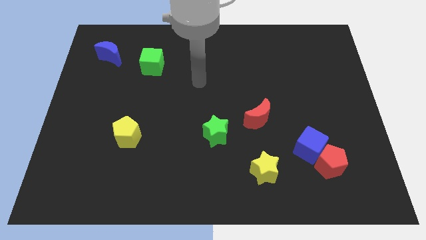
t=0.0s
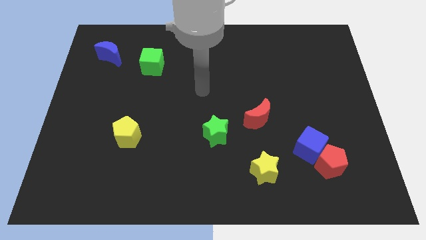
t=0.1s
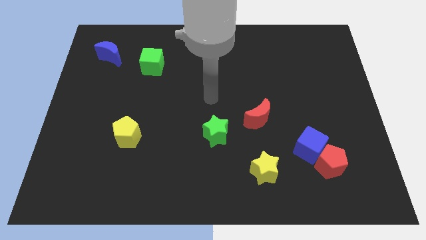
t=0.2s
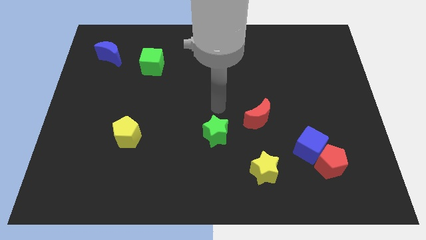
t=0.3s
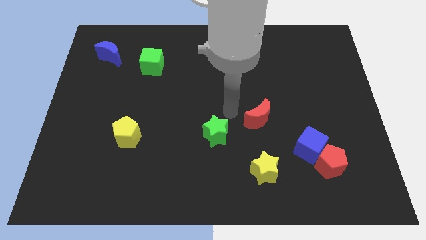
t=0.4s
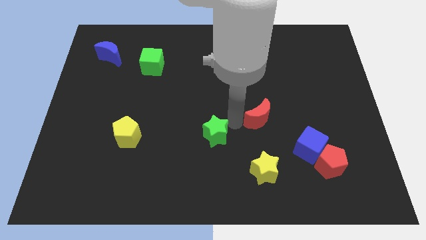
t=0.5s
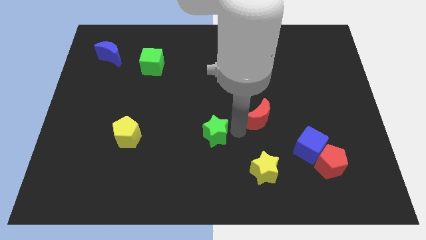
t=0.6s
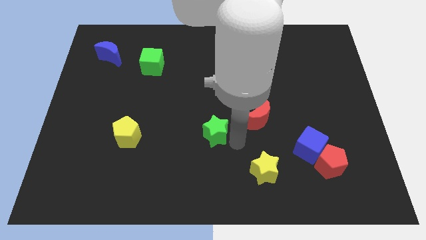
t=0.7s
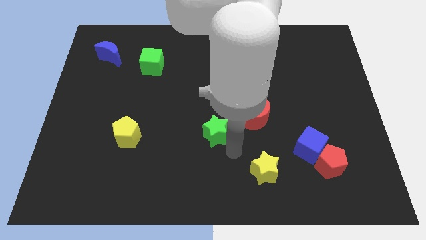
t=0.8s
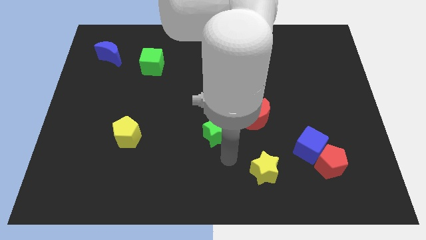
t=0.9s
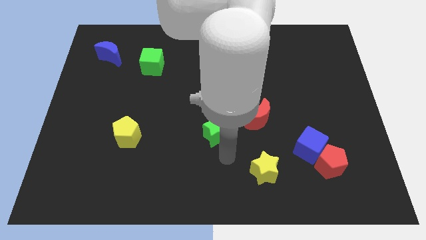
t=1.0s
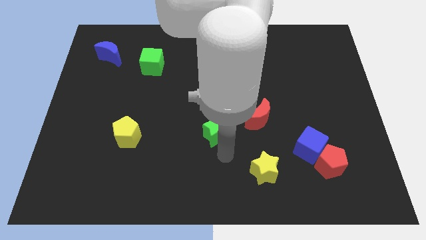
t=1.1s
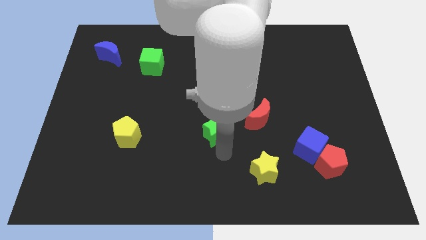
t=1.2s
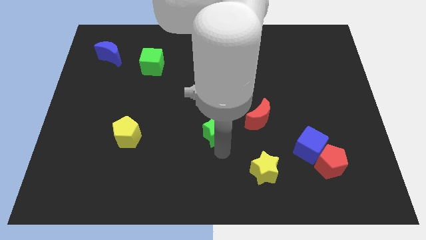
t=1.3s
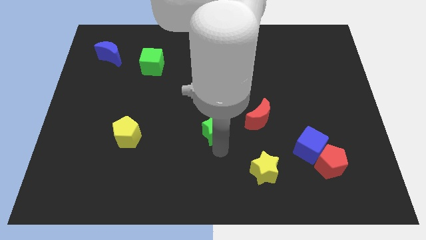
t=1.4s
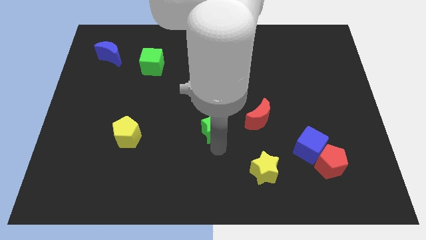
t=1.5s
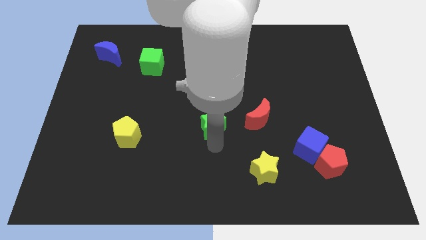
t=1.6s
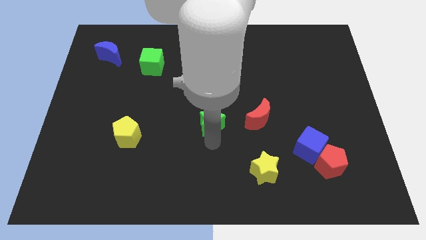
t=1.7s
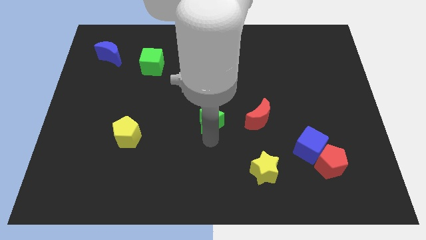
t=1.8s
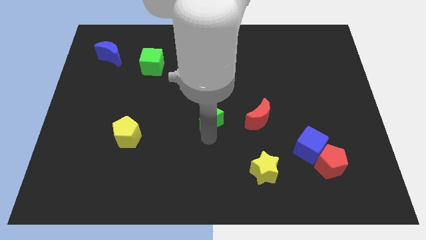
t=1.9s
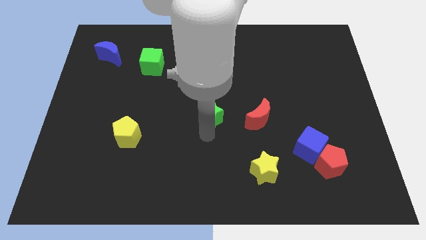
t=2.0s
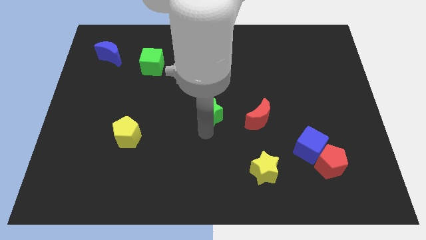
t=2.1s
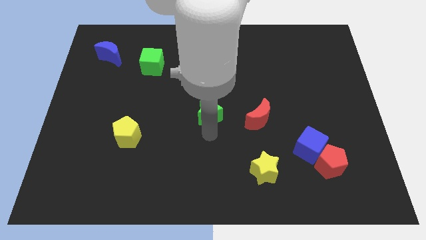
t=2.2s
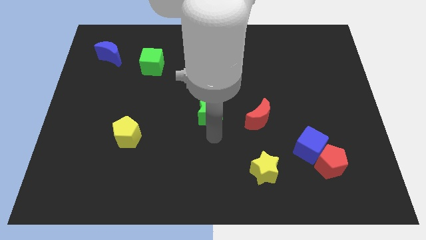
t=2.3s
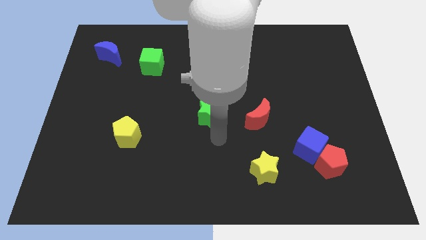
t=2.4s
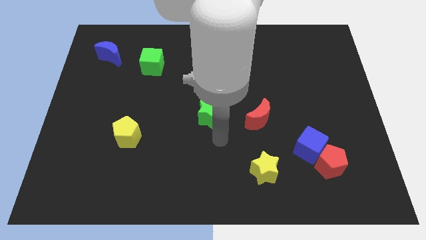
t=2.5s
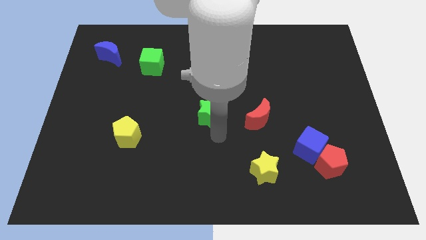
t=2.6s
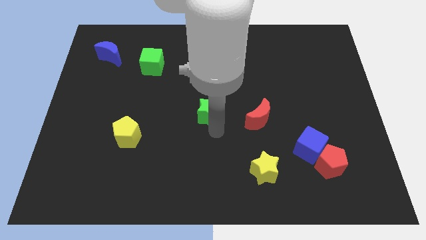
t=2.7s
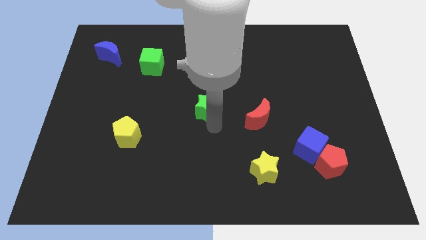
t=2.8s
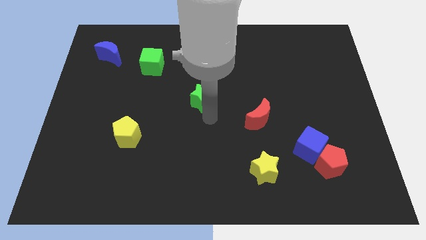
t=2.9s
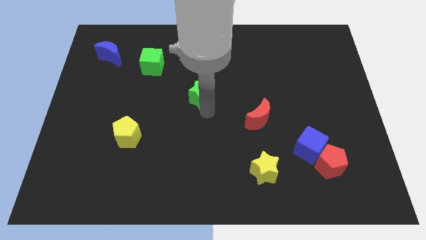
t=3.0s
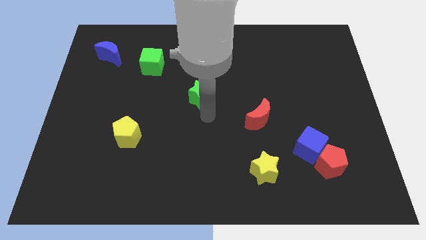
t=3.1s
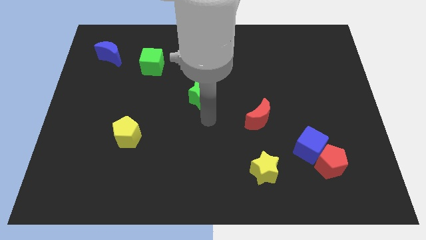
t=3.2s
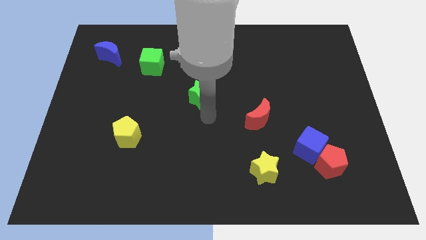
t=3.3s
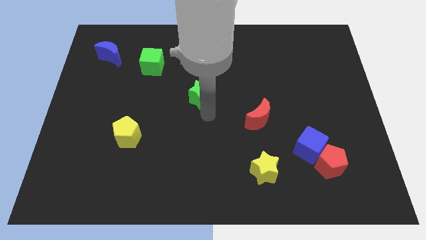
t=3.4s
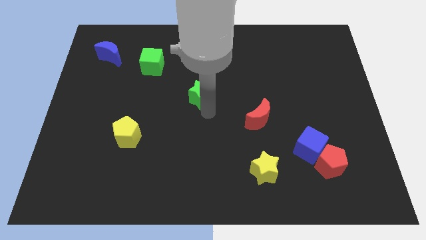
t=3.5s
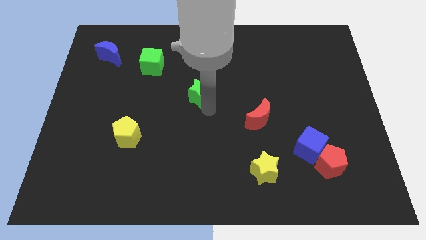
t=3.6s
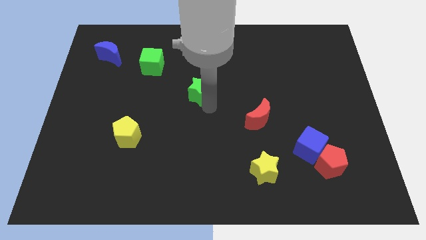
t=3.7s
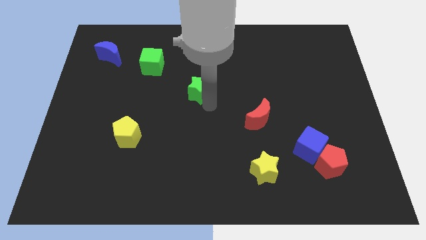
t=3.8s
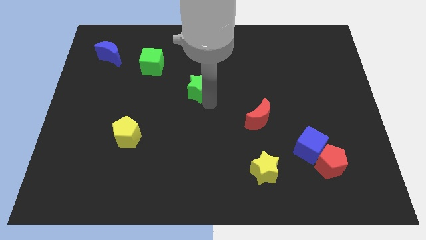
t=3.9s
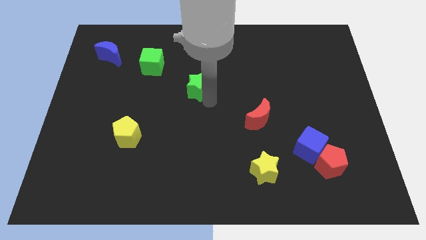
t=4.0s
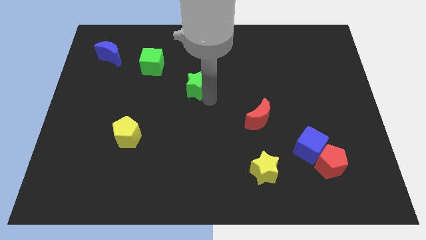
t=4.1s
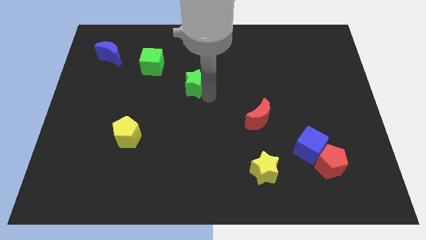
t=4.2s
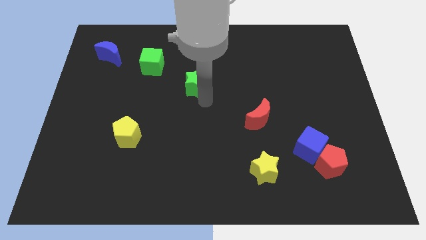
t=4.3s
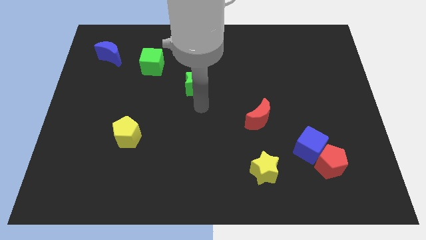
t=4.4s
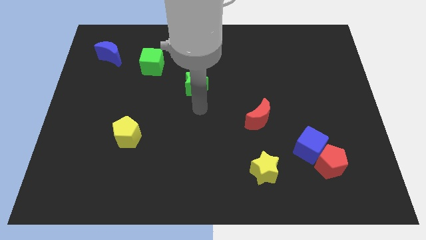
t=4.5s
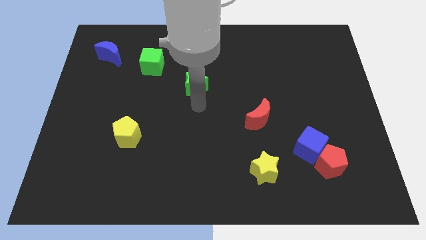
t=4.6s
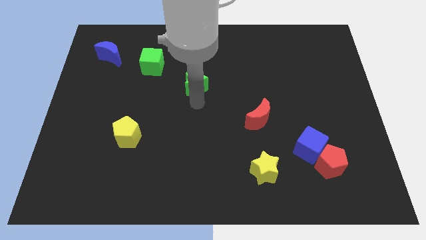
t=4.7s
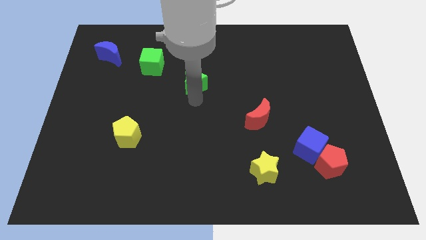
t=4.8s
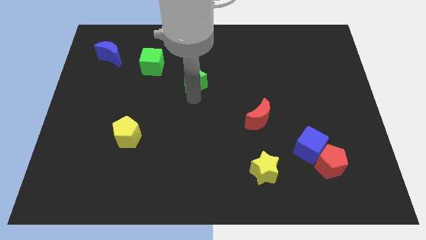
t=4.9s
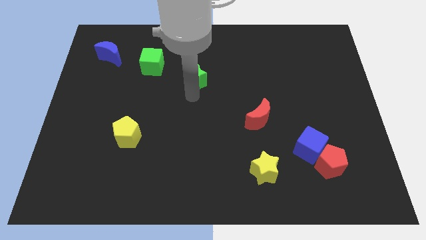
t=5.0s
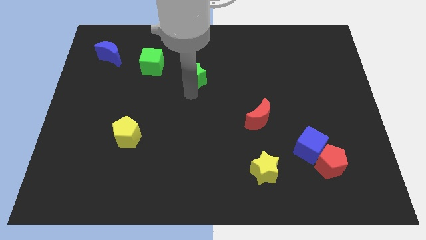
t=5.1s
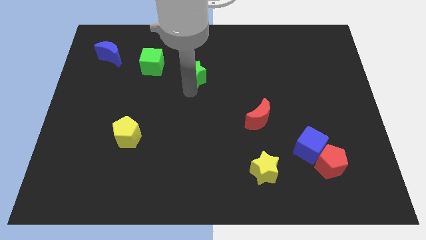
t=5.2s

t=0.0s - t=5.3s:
put the green star just right of the green cube

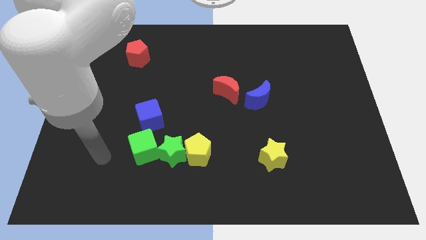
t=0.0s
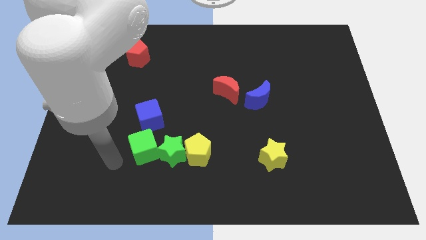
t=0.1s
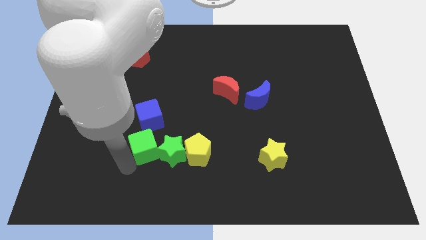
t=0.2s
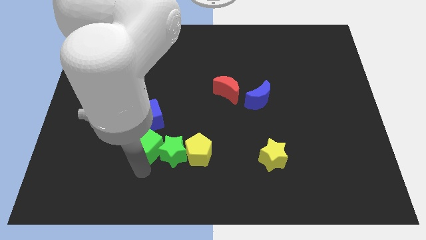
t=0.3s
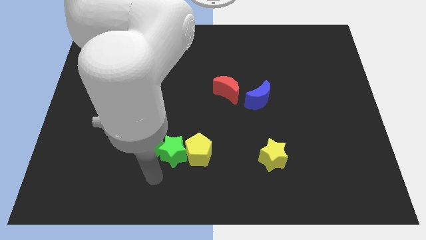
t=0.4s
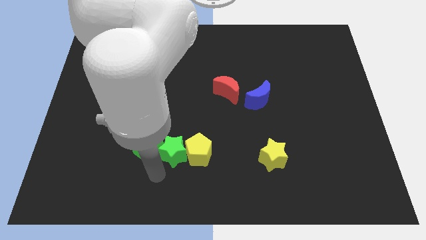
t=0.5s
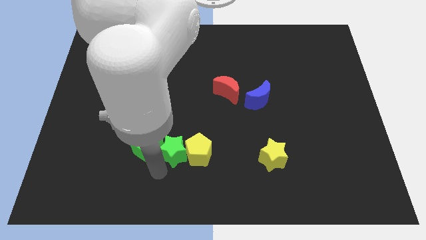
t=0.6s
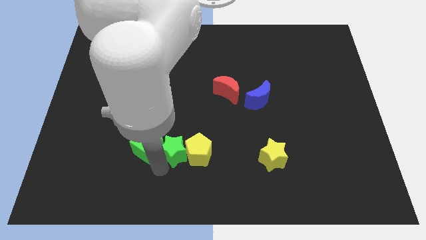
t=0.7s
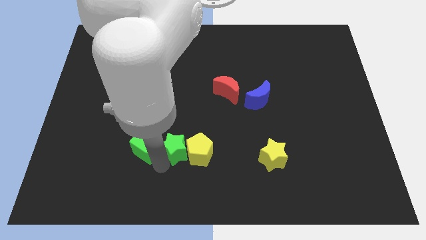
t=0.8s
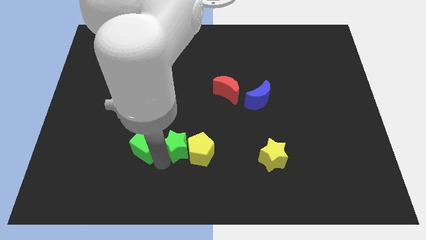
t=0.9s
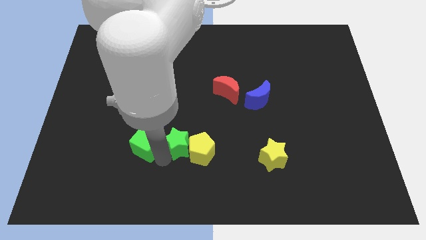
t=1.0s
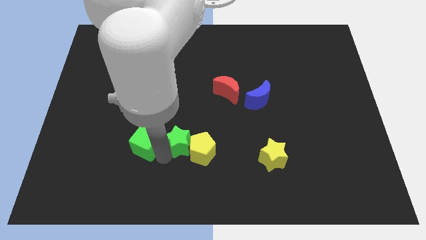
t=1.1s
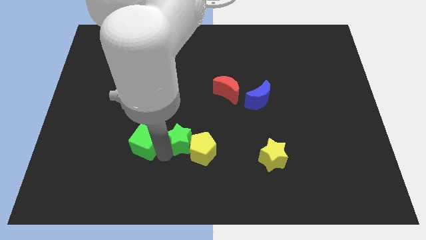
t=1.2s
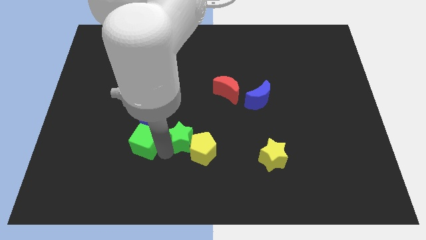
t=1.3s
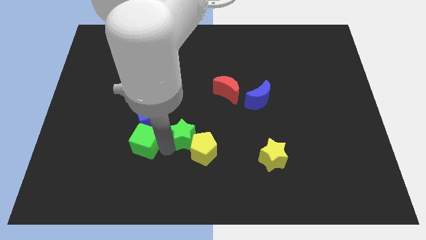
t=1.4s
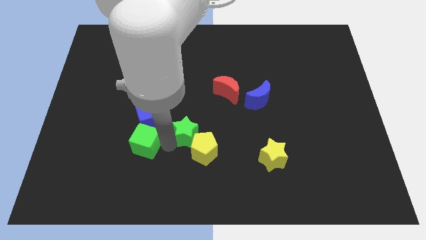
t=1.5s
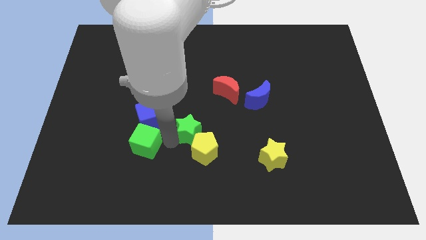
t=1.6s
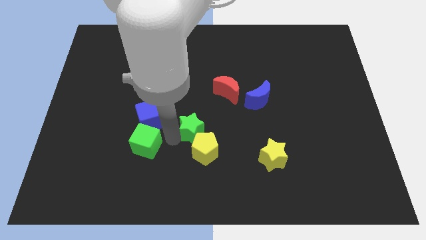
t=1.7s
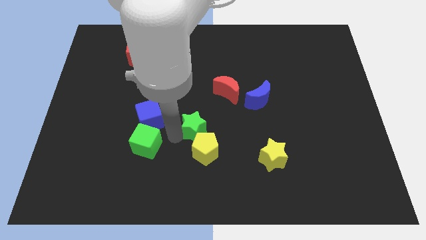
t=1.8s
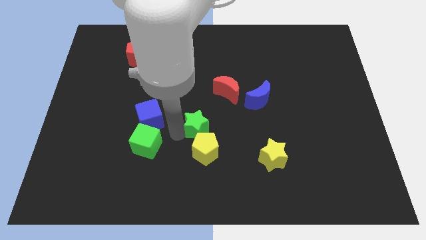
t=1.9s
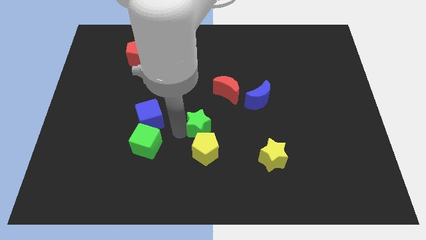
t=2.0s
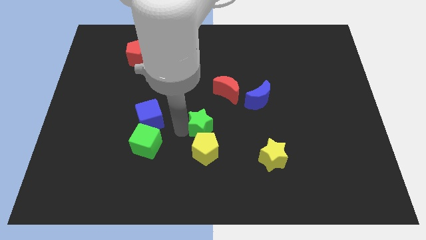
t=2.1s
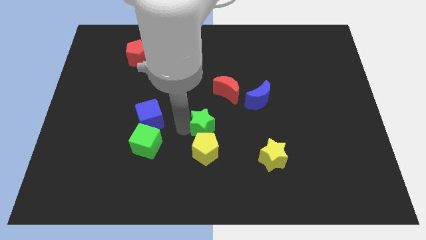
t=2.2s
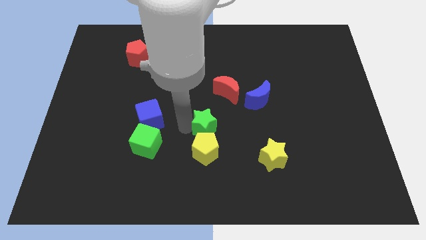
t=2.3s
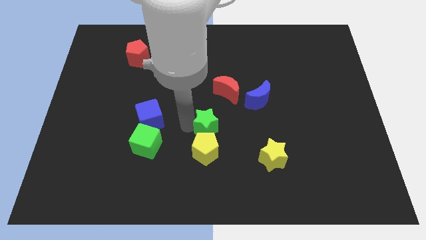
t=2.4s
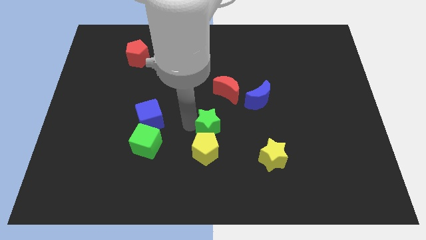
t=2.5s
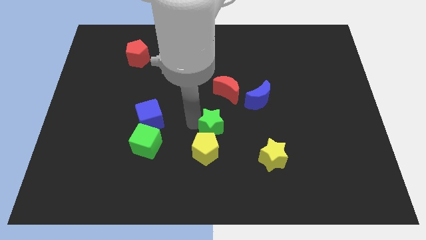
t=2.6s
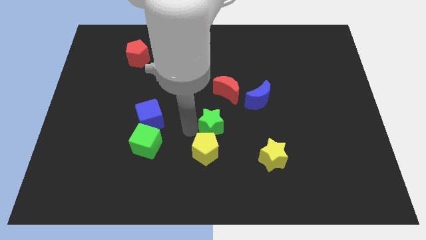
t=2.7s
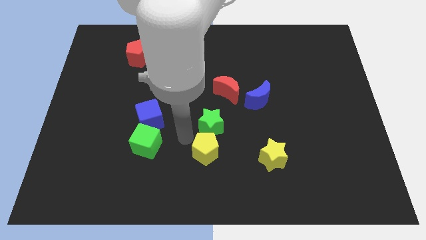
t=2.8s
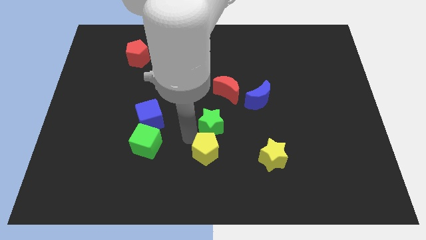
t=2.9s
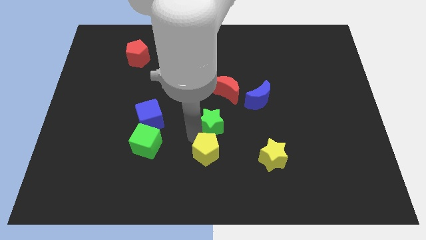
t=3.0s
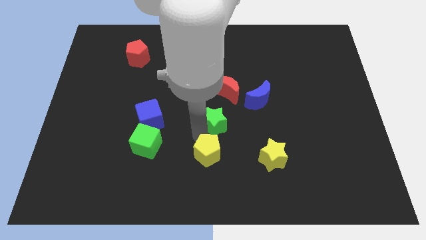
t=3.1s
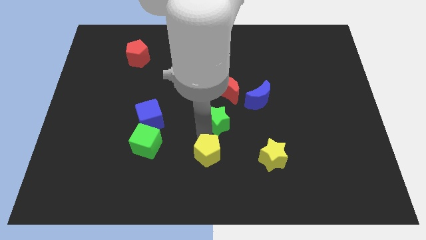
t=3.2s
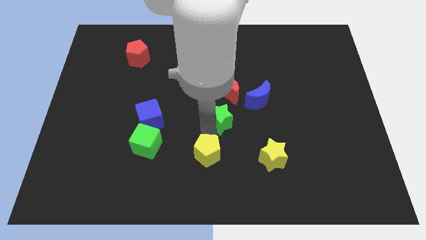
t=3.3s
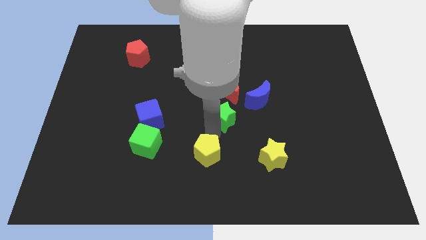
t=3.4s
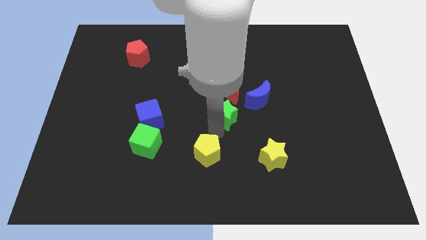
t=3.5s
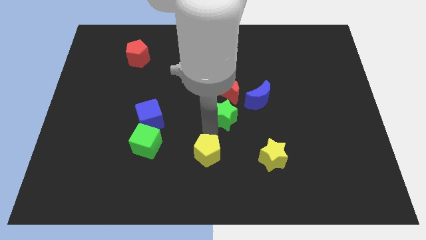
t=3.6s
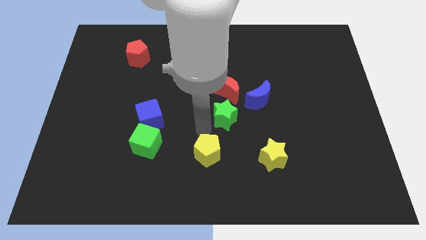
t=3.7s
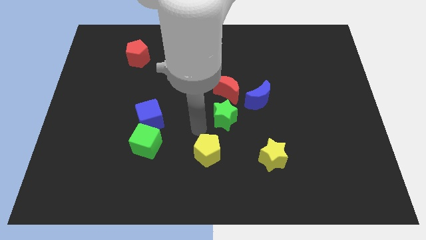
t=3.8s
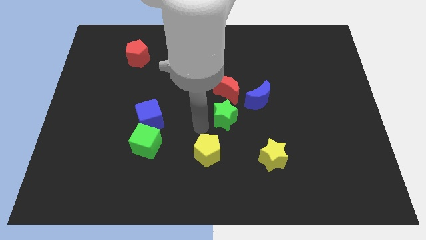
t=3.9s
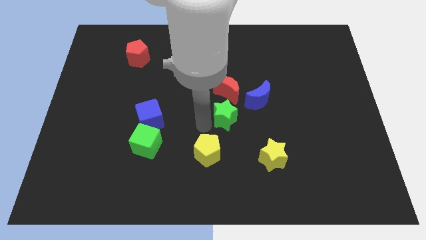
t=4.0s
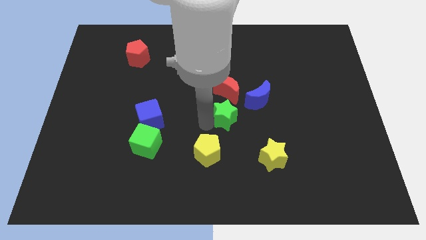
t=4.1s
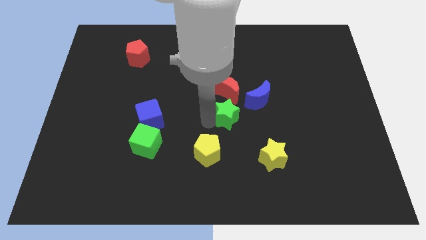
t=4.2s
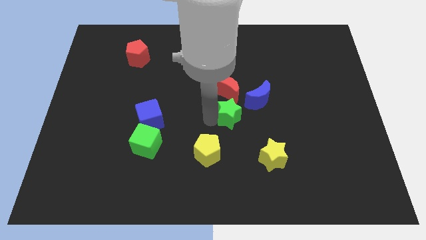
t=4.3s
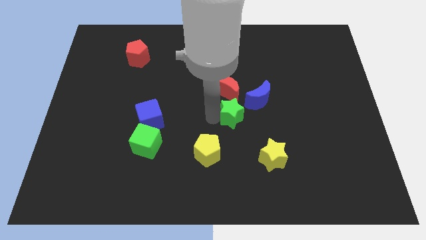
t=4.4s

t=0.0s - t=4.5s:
put the green star to the bottom right of the red moon
